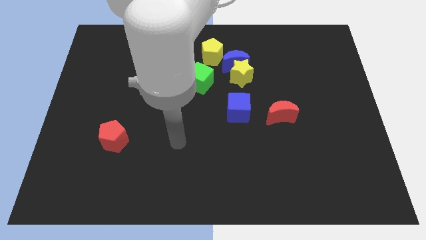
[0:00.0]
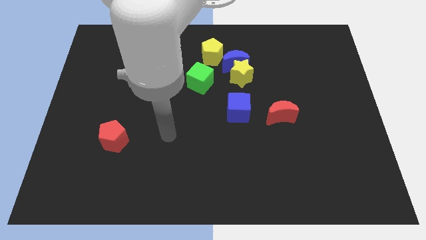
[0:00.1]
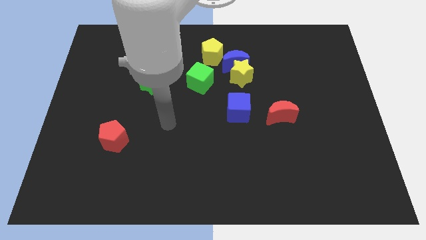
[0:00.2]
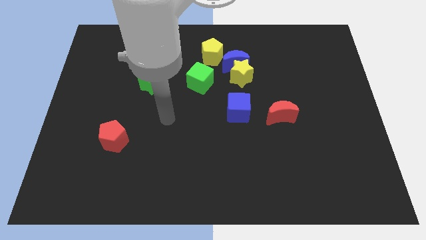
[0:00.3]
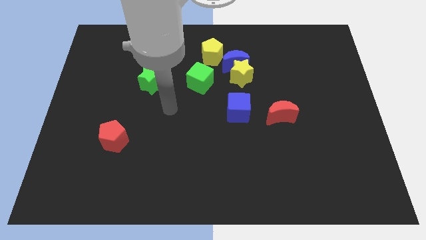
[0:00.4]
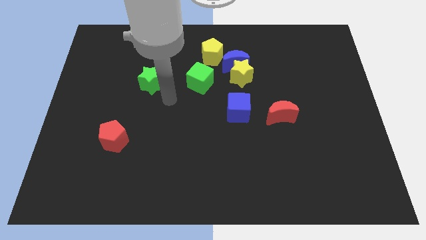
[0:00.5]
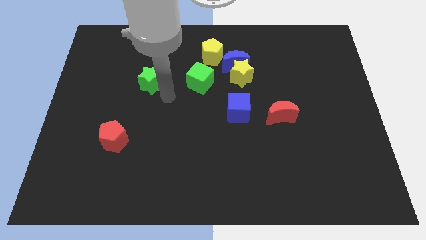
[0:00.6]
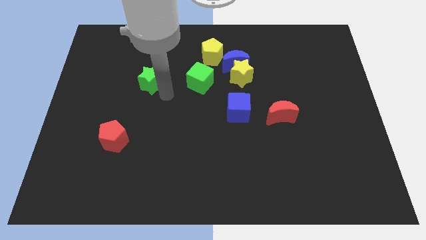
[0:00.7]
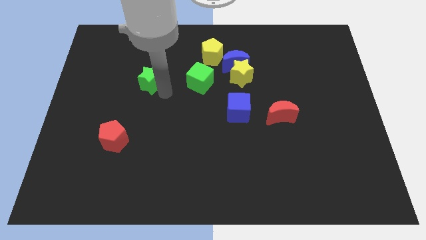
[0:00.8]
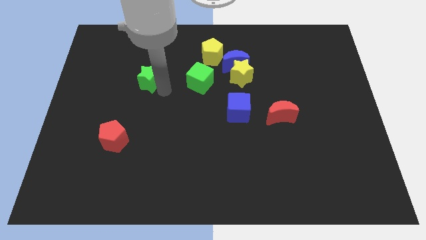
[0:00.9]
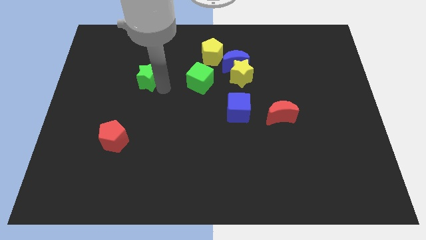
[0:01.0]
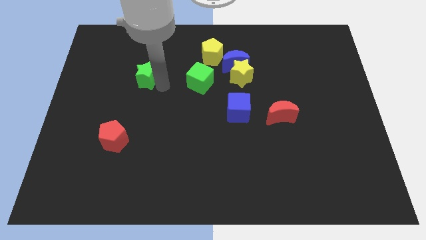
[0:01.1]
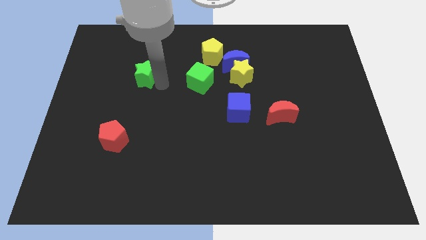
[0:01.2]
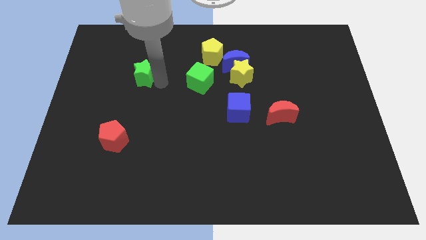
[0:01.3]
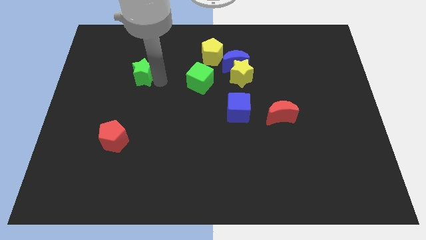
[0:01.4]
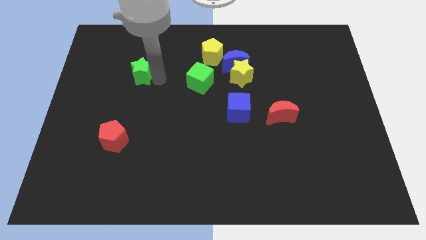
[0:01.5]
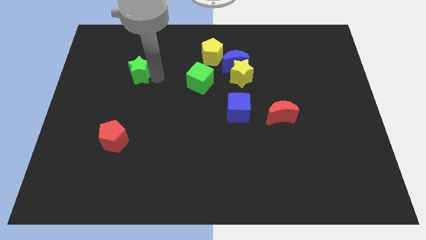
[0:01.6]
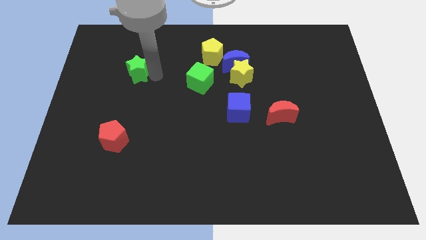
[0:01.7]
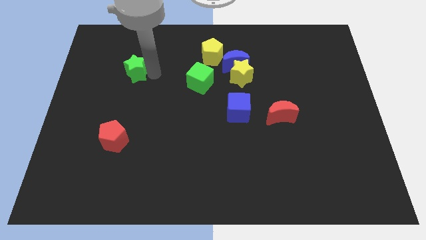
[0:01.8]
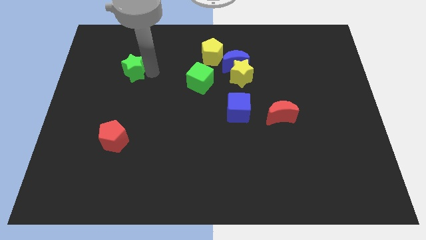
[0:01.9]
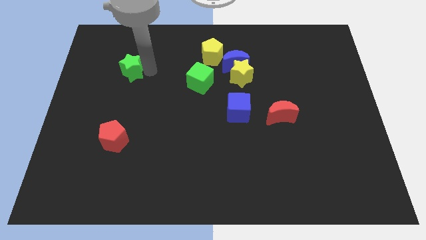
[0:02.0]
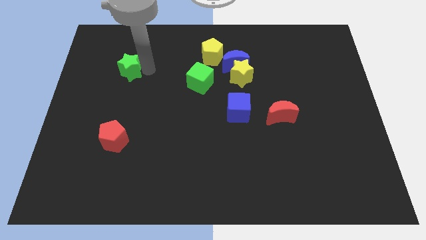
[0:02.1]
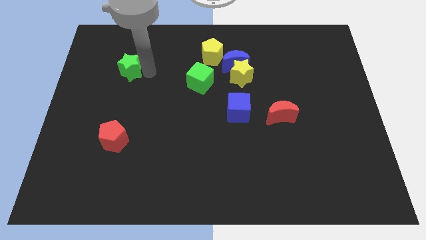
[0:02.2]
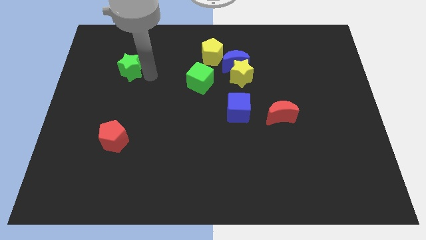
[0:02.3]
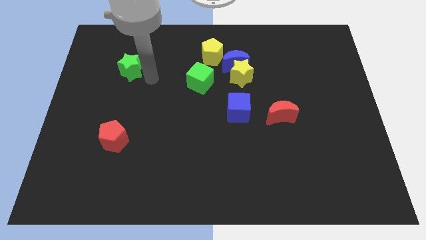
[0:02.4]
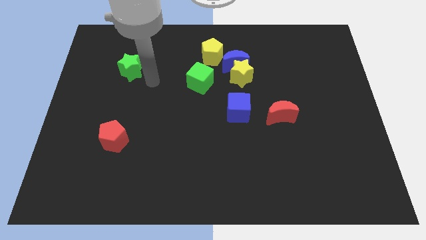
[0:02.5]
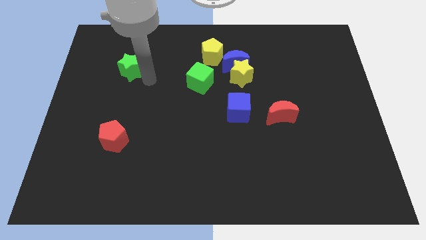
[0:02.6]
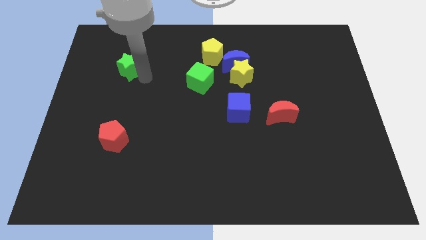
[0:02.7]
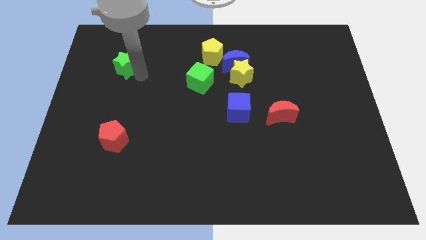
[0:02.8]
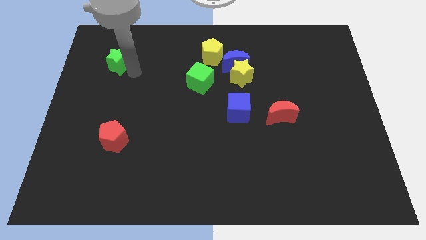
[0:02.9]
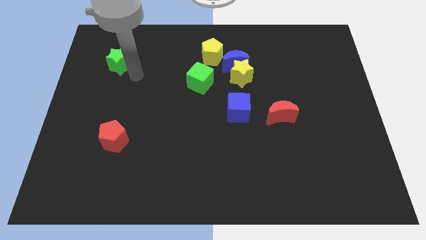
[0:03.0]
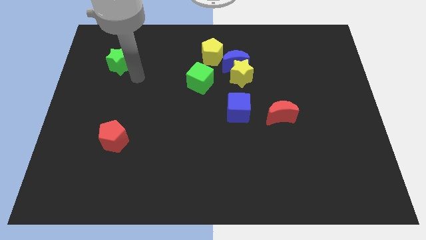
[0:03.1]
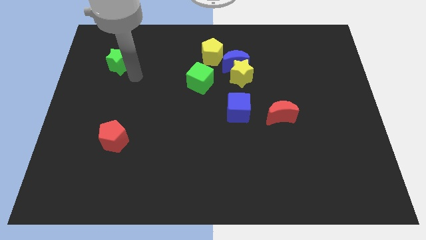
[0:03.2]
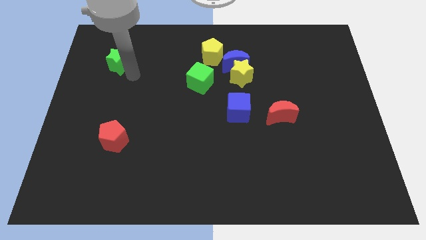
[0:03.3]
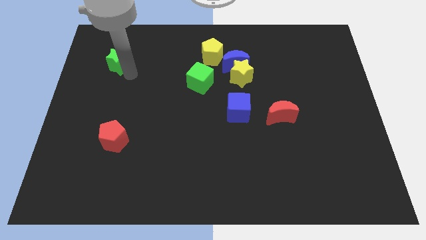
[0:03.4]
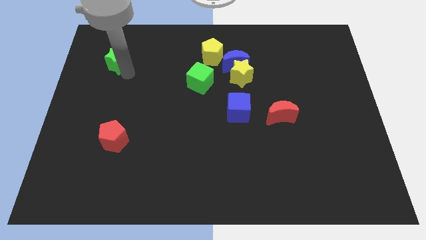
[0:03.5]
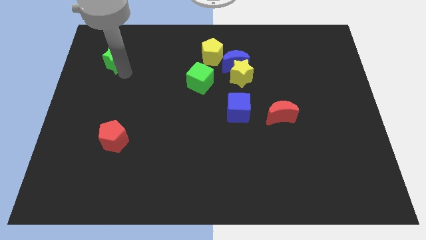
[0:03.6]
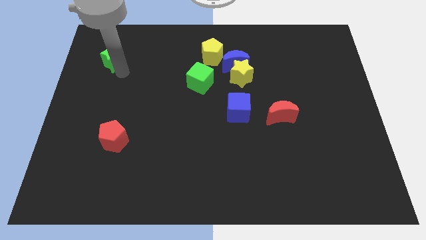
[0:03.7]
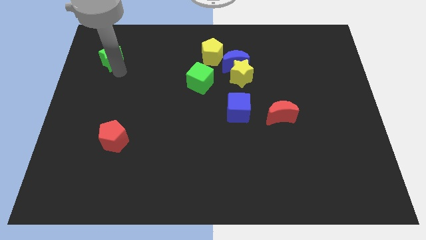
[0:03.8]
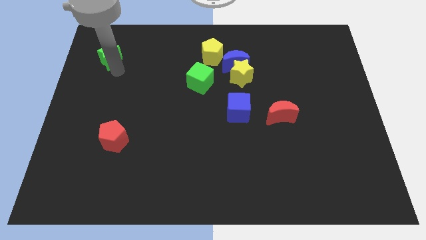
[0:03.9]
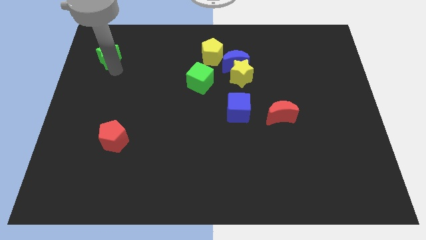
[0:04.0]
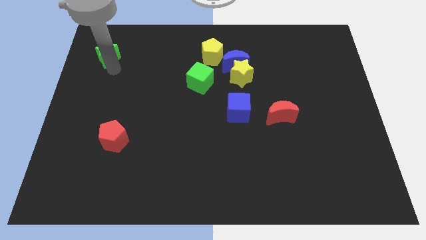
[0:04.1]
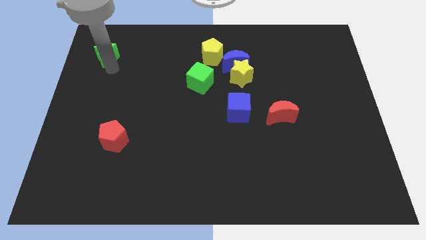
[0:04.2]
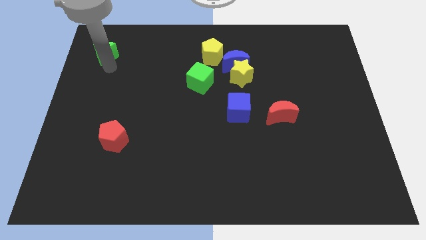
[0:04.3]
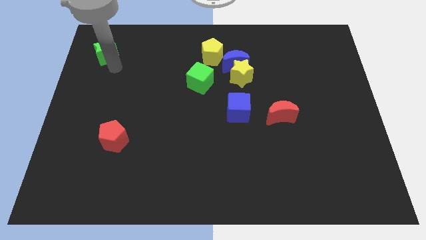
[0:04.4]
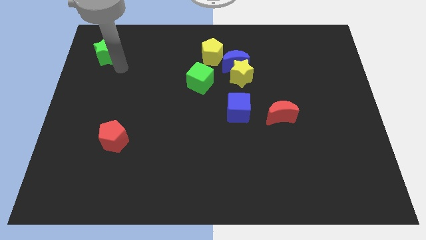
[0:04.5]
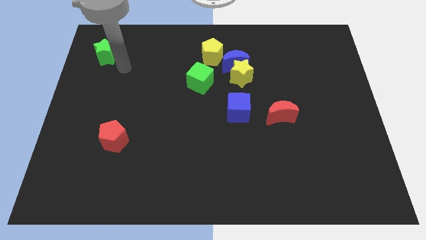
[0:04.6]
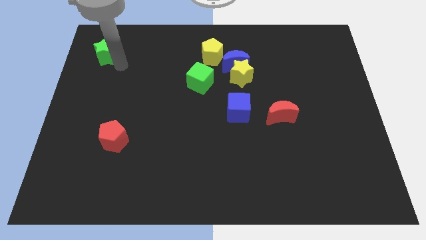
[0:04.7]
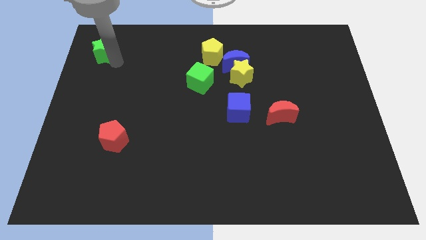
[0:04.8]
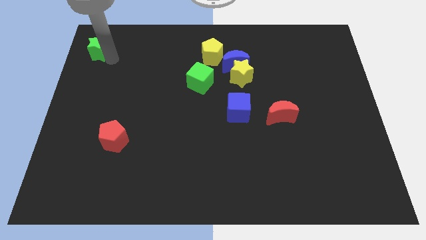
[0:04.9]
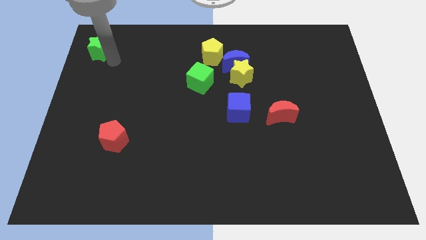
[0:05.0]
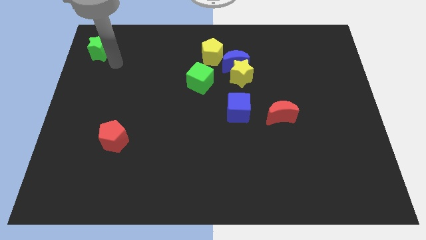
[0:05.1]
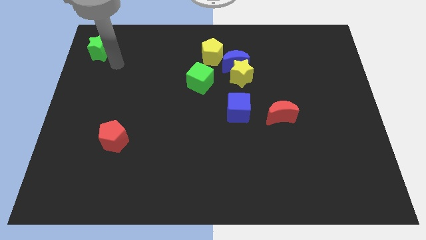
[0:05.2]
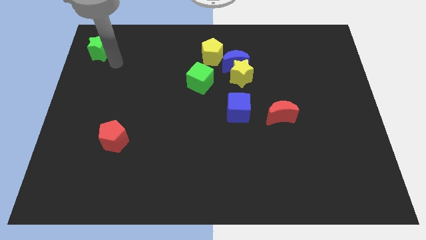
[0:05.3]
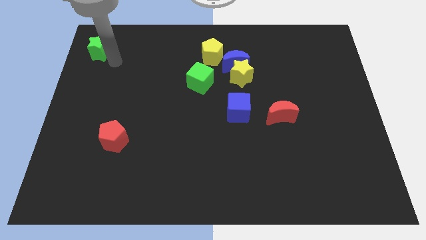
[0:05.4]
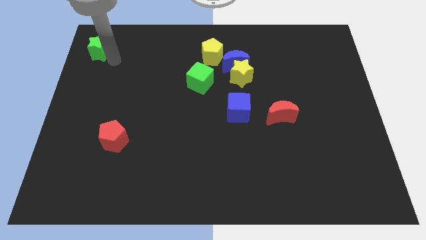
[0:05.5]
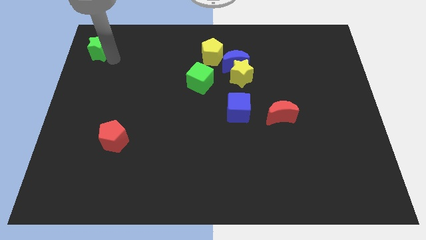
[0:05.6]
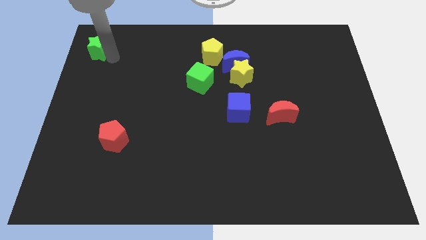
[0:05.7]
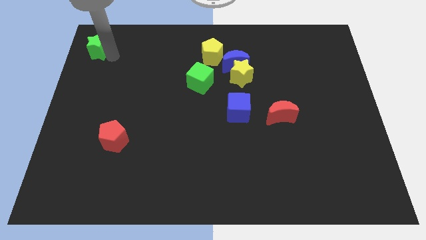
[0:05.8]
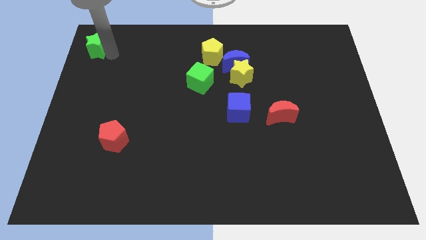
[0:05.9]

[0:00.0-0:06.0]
slide the green star to the top left of the board
